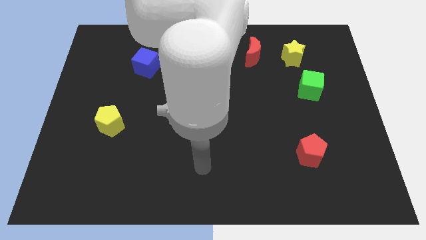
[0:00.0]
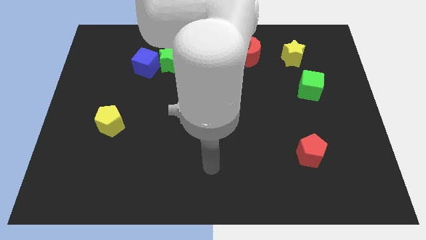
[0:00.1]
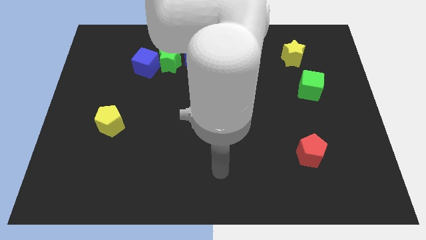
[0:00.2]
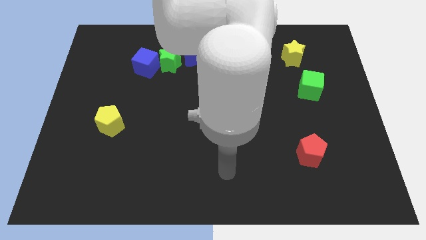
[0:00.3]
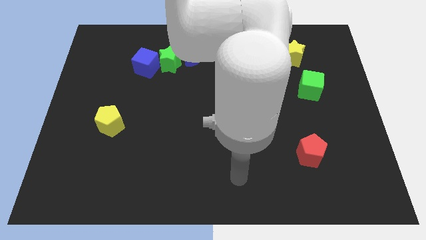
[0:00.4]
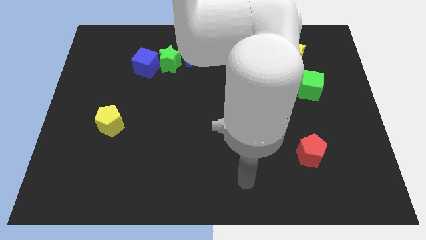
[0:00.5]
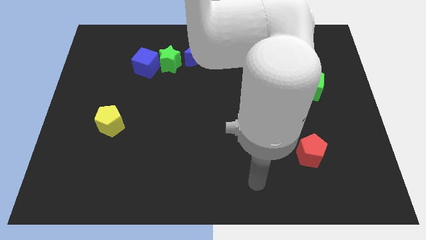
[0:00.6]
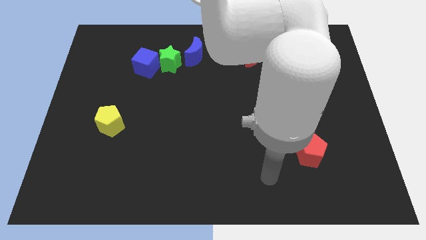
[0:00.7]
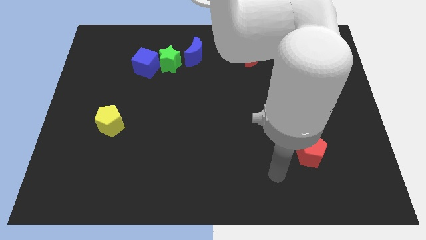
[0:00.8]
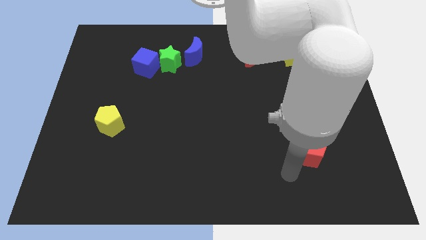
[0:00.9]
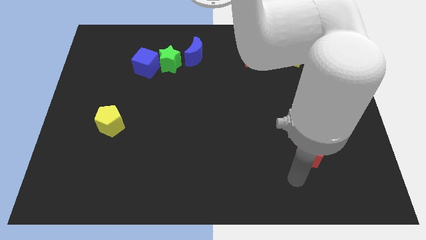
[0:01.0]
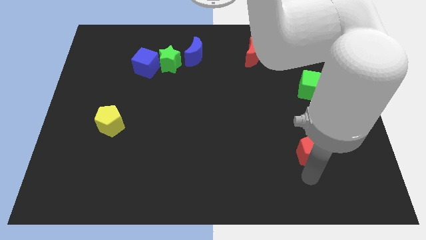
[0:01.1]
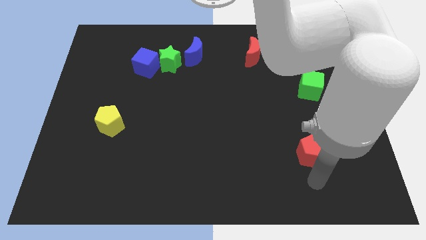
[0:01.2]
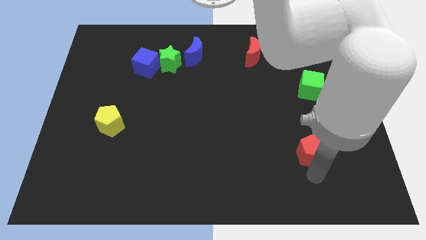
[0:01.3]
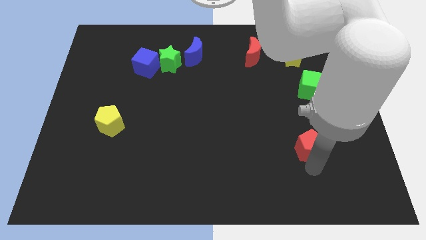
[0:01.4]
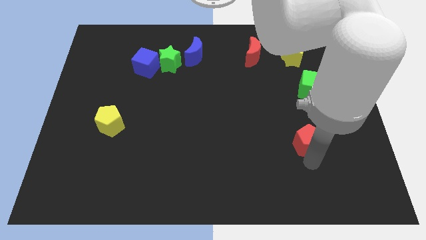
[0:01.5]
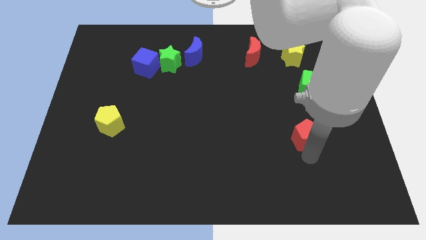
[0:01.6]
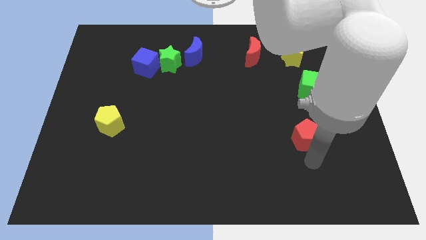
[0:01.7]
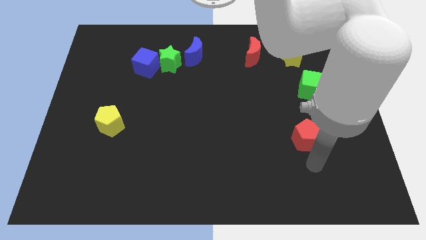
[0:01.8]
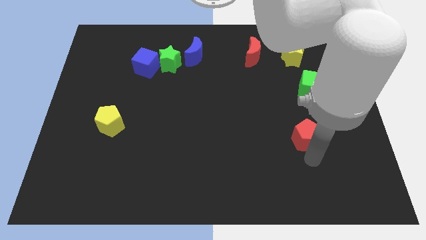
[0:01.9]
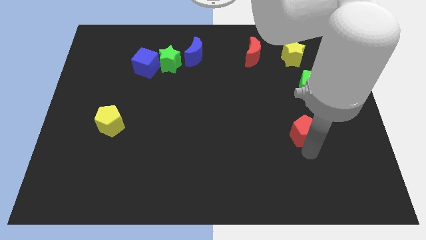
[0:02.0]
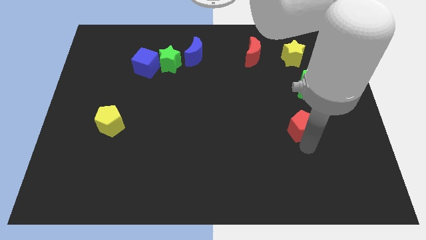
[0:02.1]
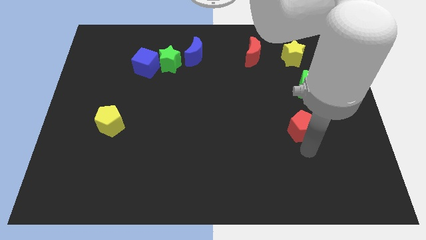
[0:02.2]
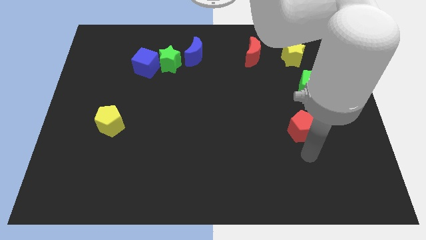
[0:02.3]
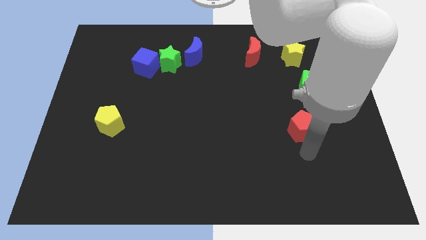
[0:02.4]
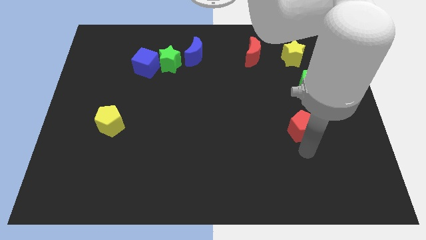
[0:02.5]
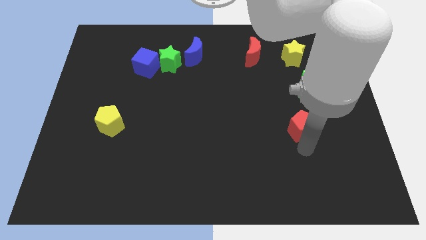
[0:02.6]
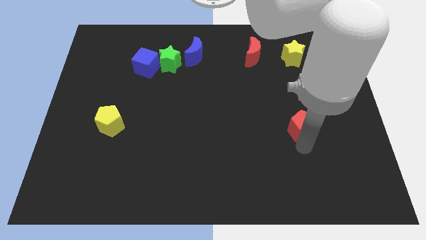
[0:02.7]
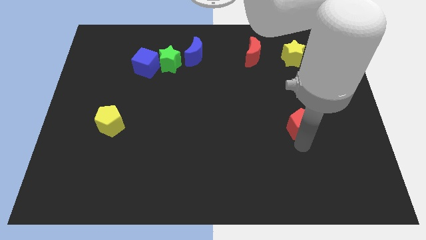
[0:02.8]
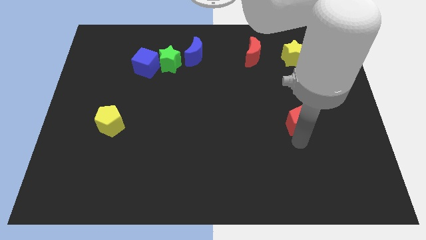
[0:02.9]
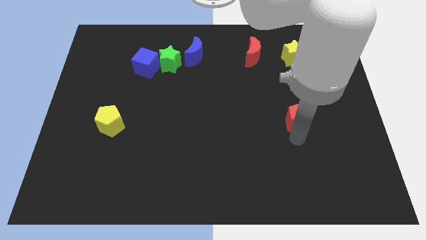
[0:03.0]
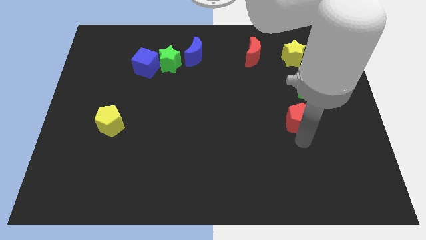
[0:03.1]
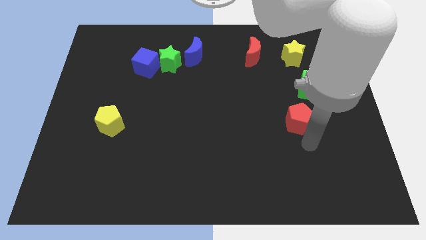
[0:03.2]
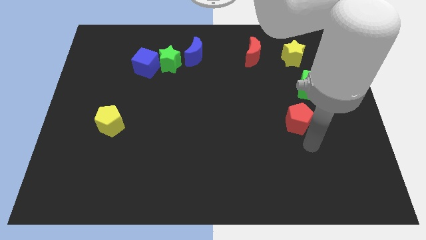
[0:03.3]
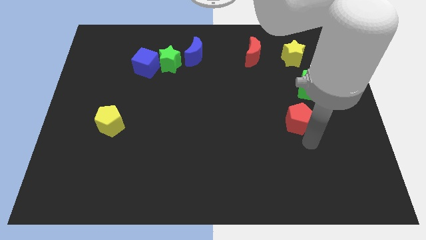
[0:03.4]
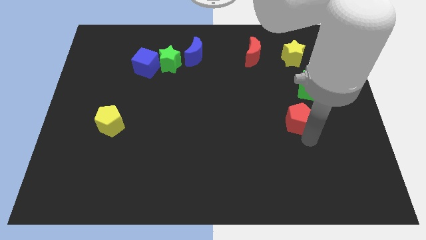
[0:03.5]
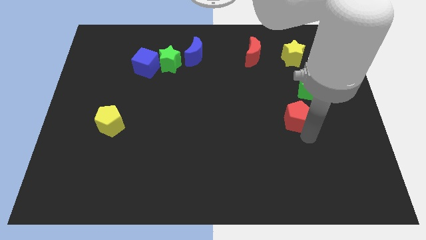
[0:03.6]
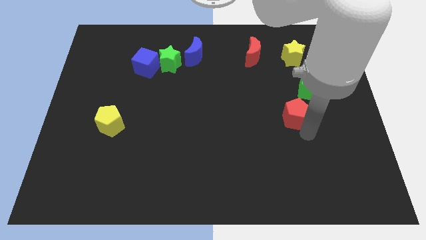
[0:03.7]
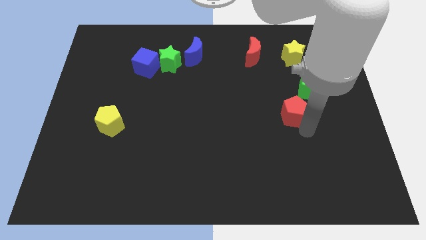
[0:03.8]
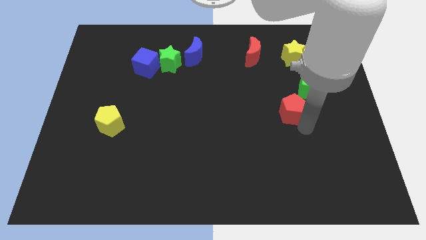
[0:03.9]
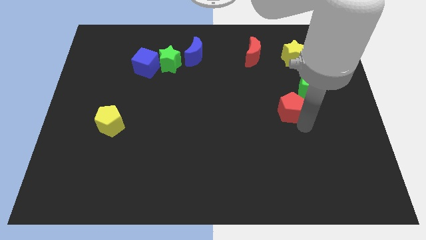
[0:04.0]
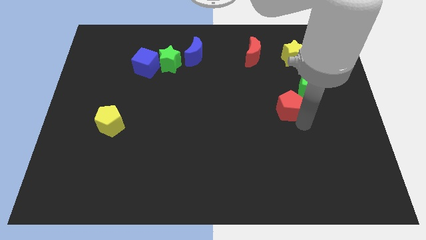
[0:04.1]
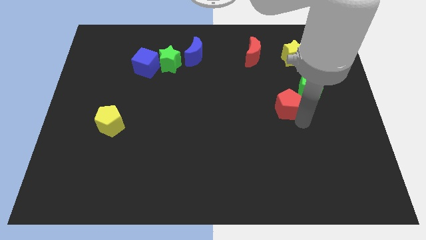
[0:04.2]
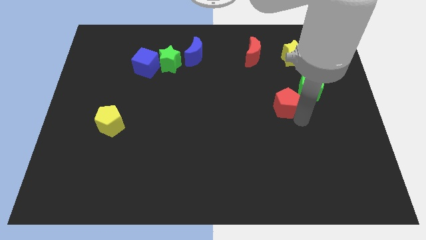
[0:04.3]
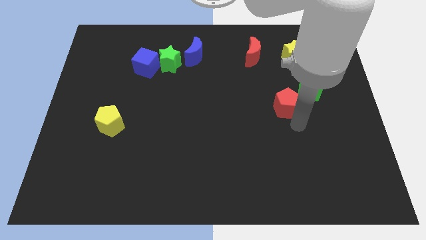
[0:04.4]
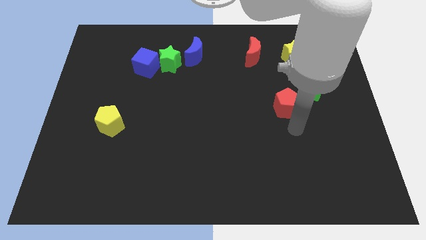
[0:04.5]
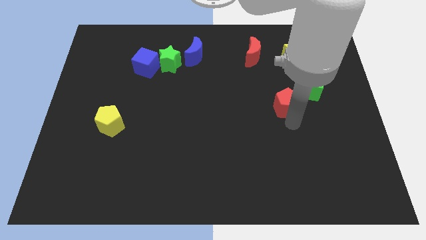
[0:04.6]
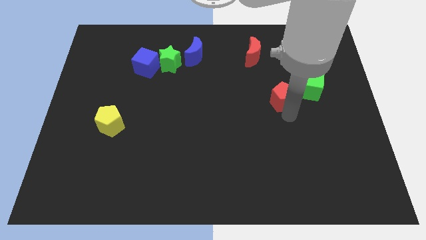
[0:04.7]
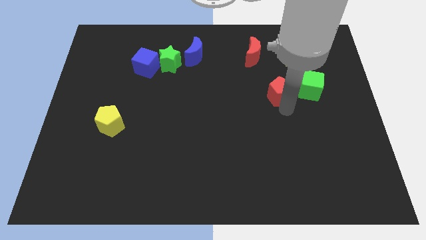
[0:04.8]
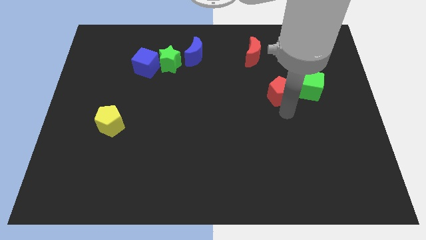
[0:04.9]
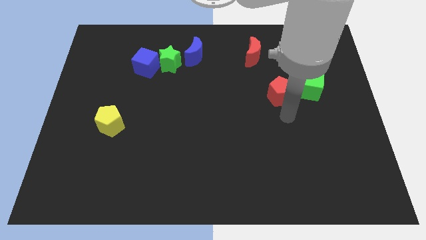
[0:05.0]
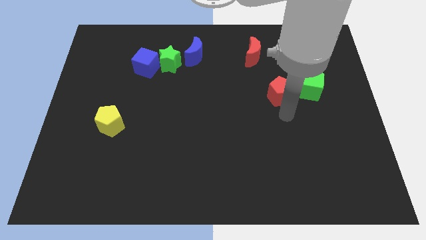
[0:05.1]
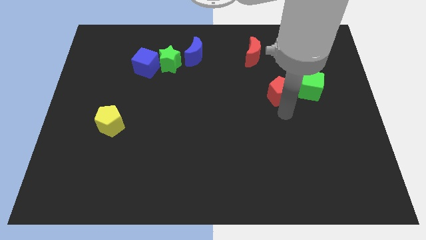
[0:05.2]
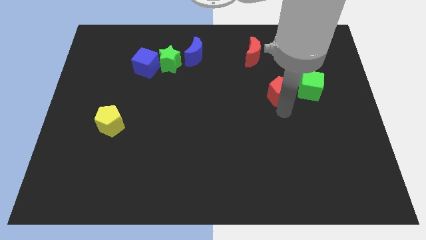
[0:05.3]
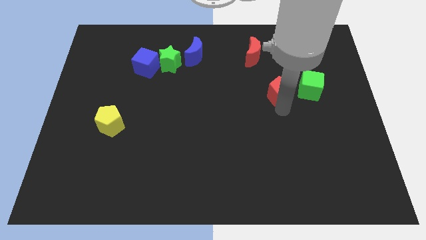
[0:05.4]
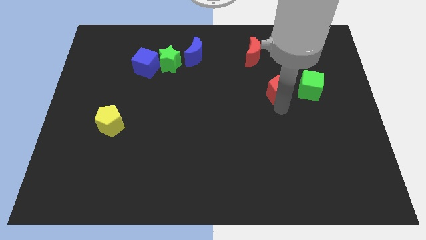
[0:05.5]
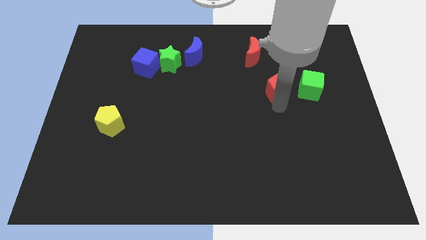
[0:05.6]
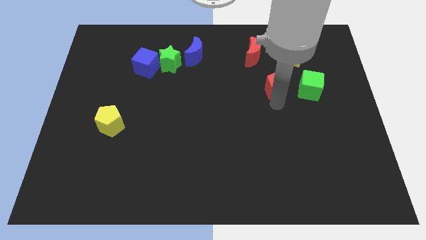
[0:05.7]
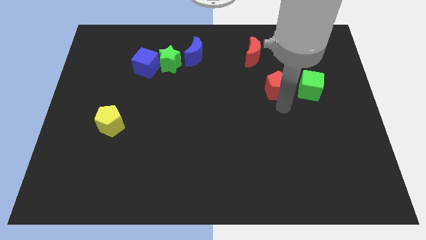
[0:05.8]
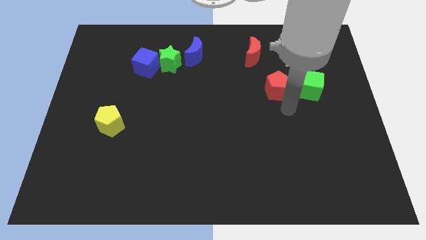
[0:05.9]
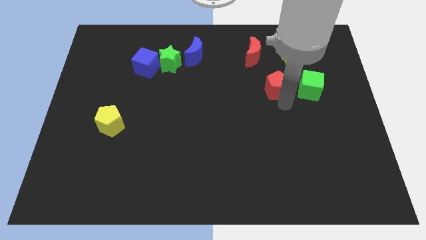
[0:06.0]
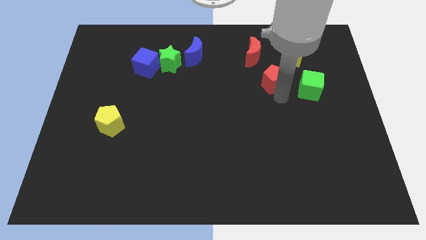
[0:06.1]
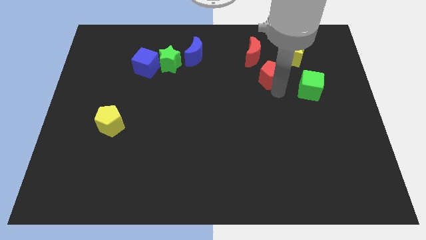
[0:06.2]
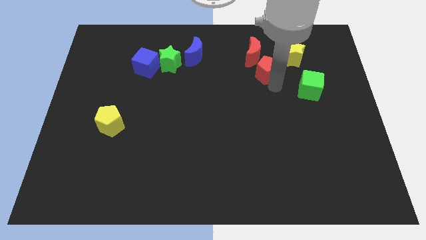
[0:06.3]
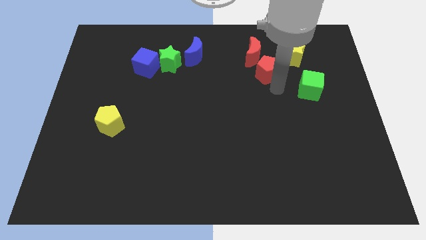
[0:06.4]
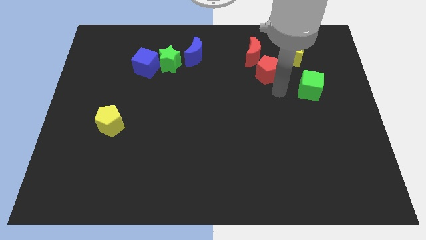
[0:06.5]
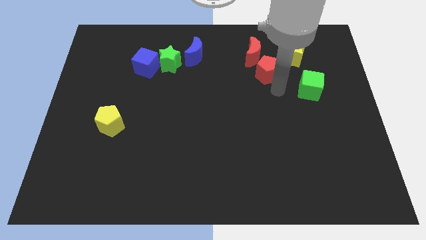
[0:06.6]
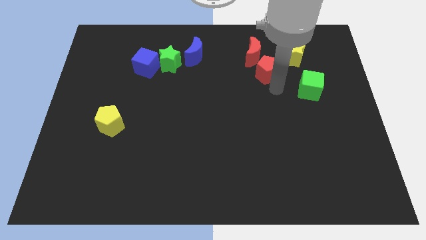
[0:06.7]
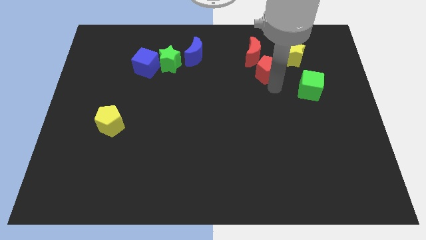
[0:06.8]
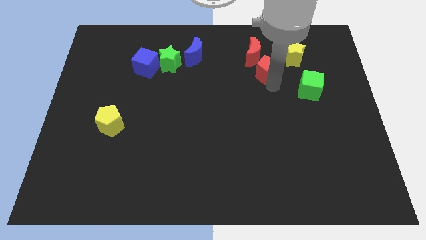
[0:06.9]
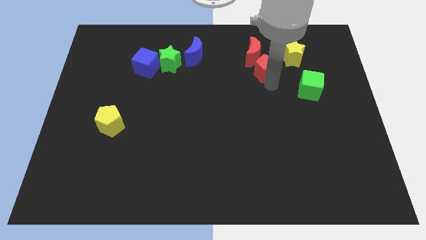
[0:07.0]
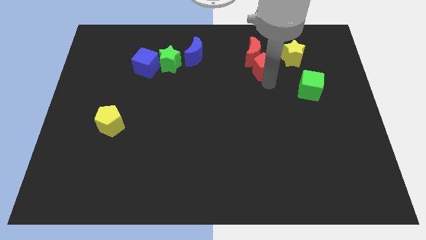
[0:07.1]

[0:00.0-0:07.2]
slide the red pentagon to the red moon
